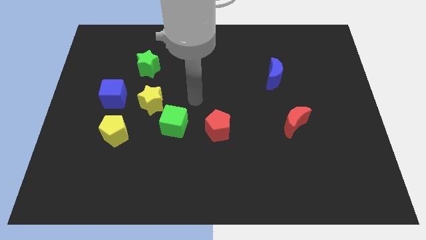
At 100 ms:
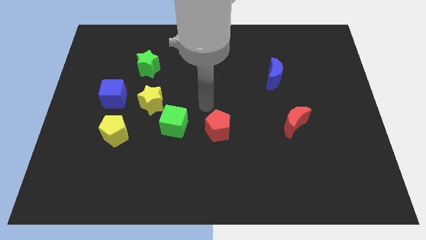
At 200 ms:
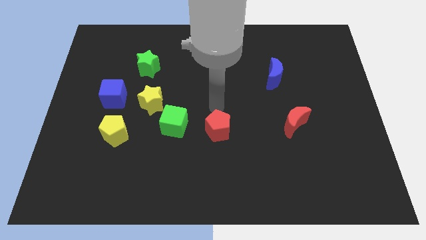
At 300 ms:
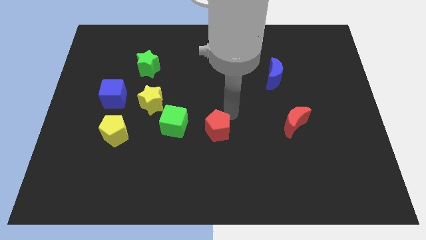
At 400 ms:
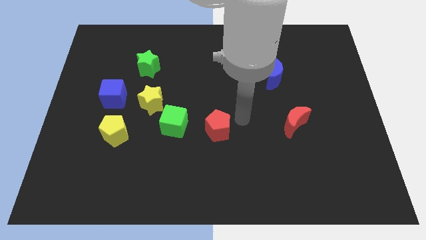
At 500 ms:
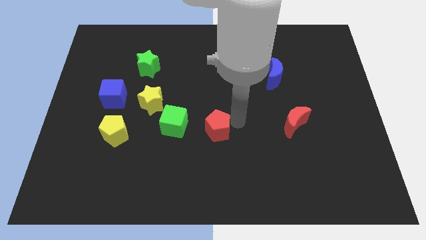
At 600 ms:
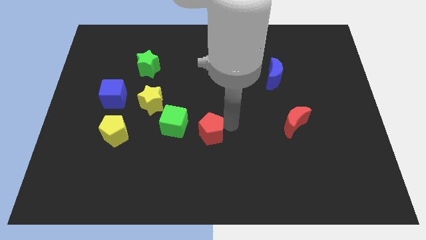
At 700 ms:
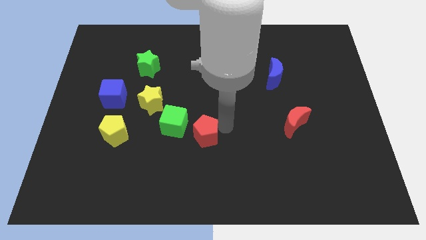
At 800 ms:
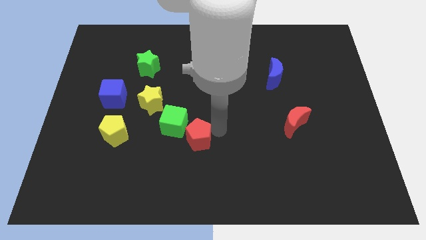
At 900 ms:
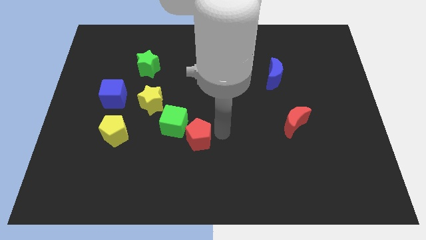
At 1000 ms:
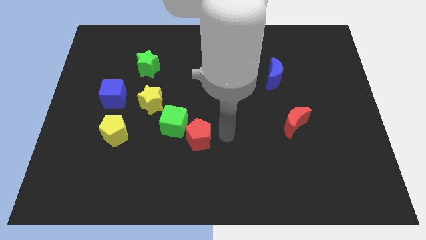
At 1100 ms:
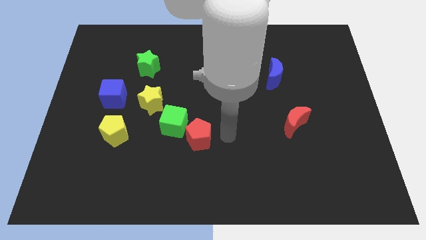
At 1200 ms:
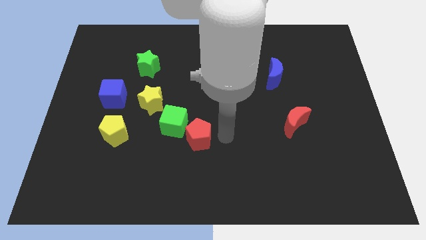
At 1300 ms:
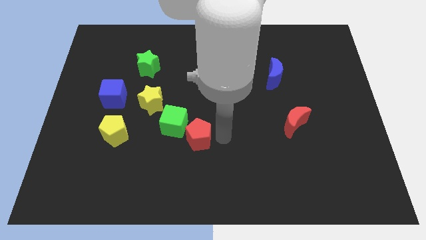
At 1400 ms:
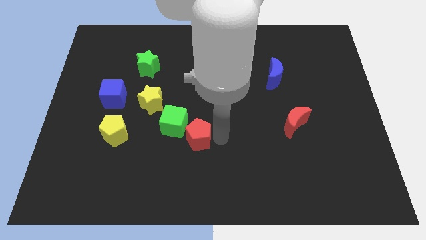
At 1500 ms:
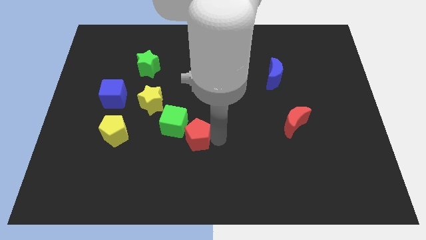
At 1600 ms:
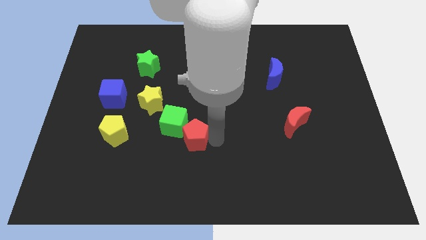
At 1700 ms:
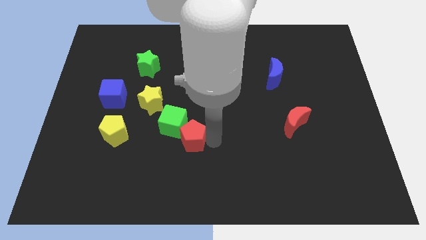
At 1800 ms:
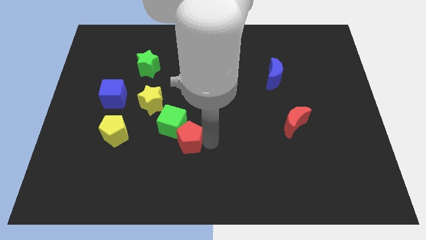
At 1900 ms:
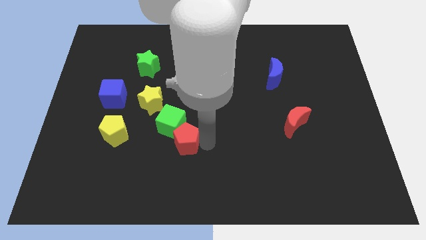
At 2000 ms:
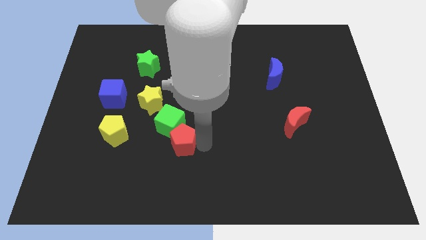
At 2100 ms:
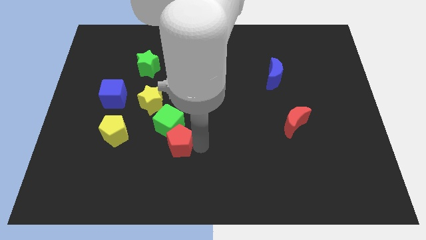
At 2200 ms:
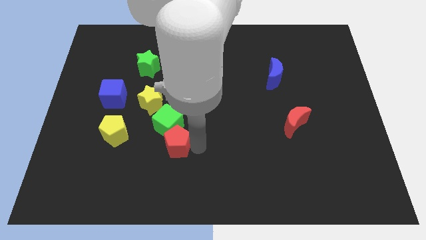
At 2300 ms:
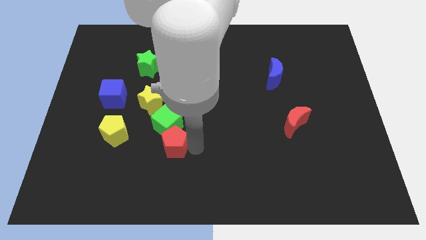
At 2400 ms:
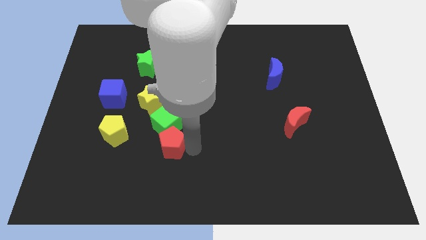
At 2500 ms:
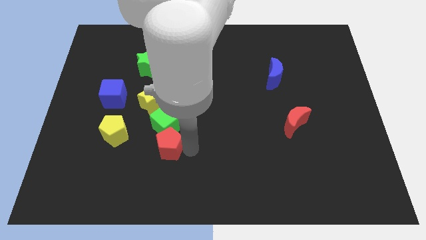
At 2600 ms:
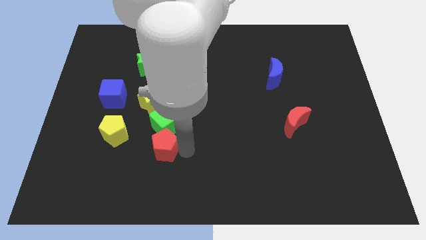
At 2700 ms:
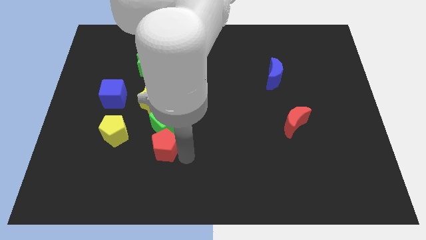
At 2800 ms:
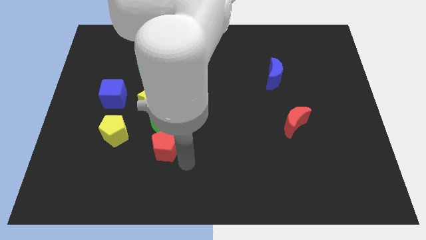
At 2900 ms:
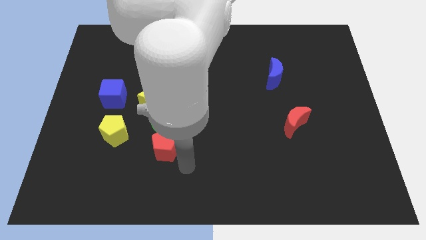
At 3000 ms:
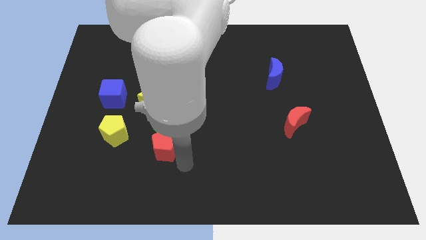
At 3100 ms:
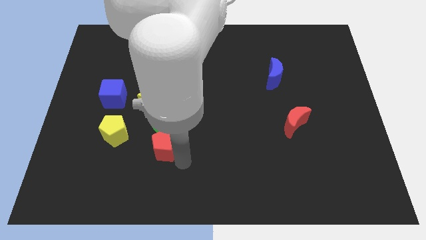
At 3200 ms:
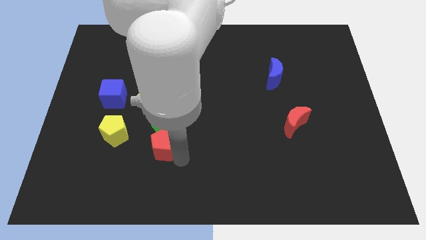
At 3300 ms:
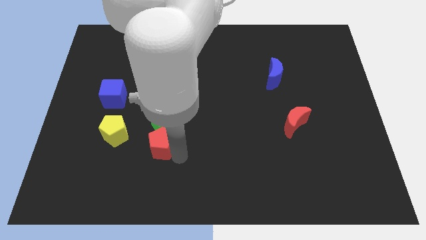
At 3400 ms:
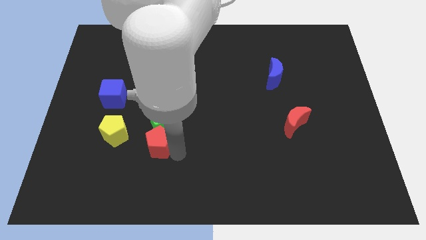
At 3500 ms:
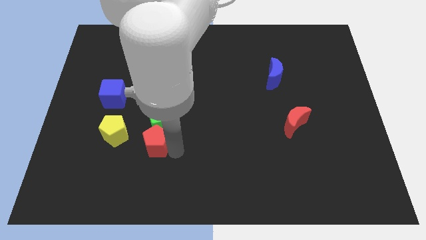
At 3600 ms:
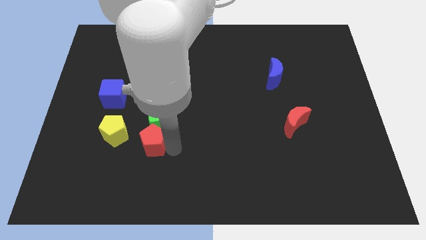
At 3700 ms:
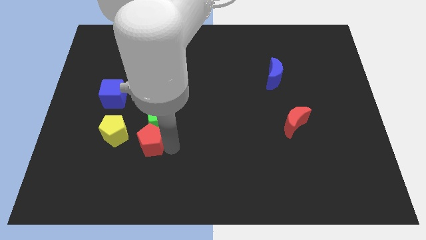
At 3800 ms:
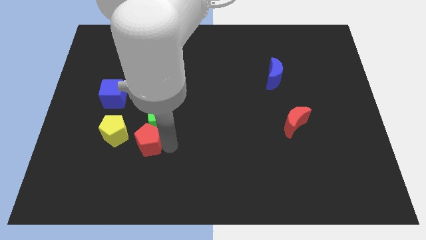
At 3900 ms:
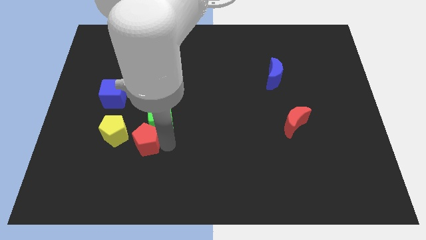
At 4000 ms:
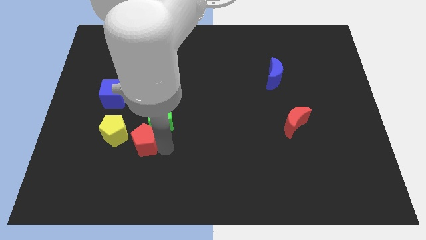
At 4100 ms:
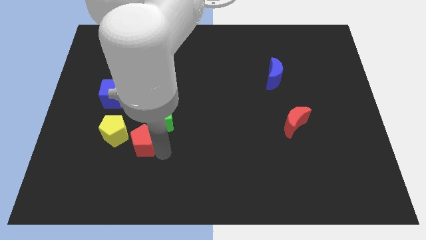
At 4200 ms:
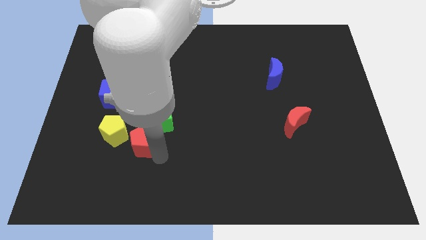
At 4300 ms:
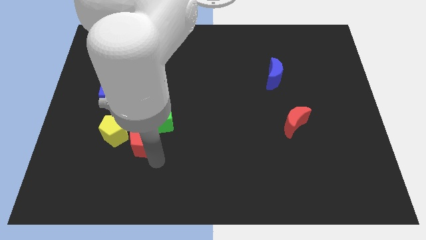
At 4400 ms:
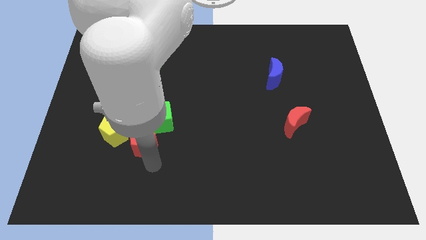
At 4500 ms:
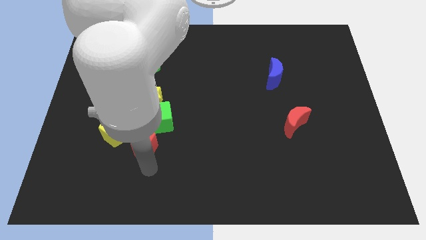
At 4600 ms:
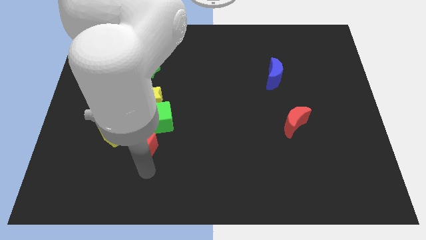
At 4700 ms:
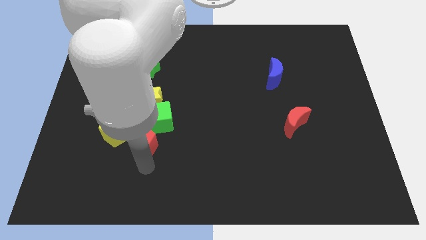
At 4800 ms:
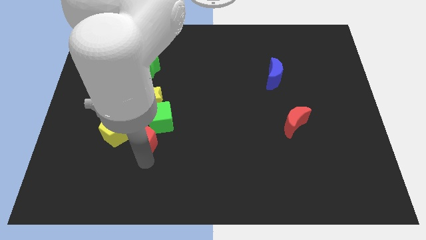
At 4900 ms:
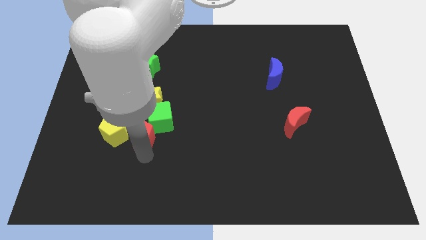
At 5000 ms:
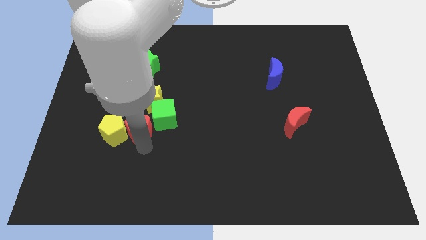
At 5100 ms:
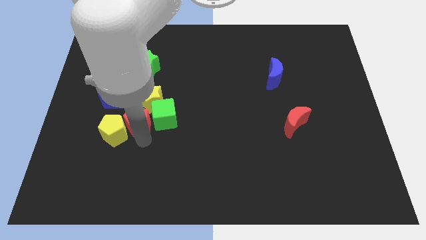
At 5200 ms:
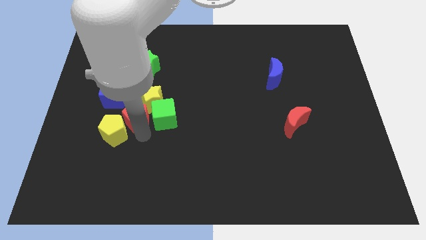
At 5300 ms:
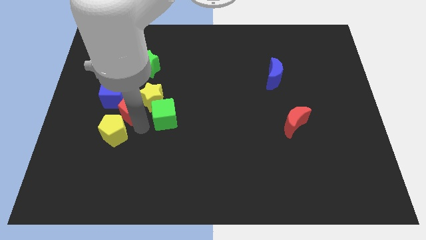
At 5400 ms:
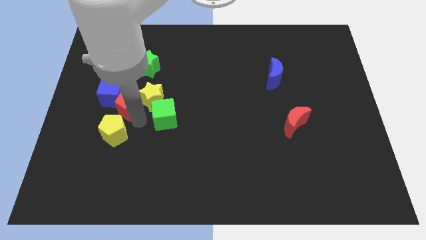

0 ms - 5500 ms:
move the red pentagon close to the blue cube

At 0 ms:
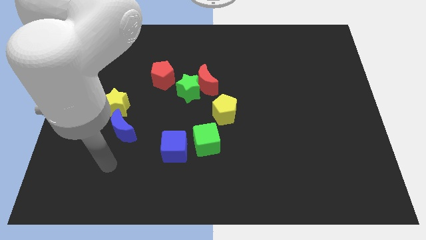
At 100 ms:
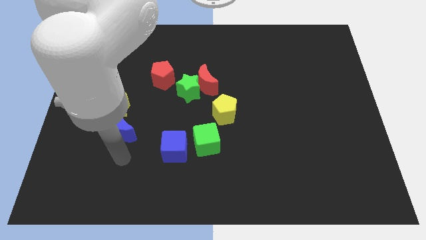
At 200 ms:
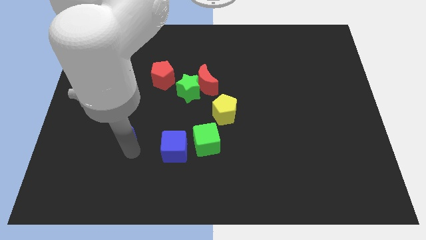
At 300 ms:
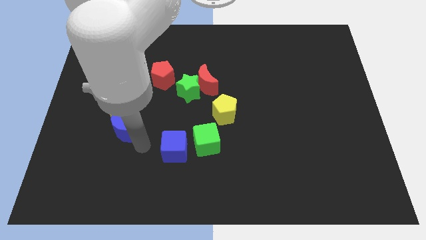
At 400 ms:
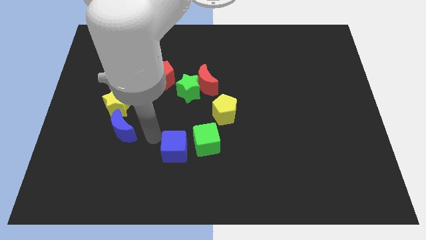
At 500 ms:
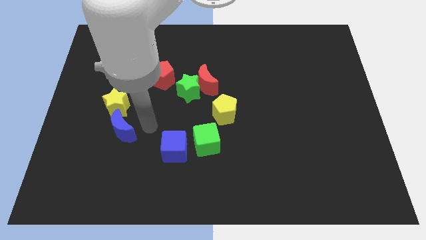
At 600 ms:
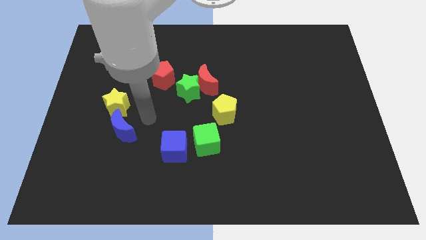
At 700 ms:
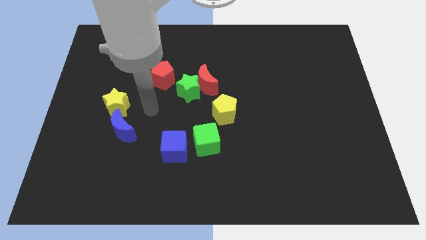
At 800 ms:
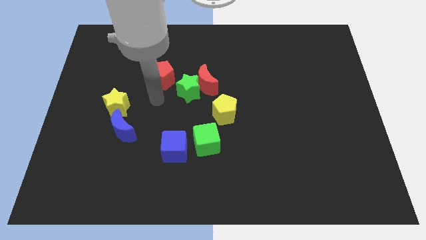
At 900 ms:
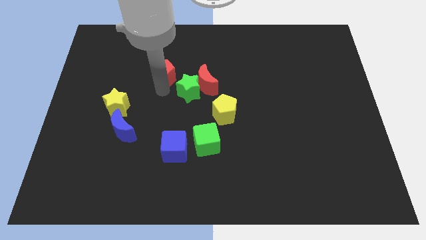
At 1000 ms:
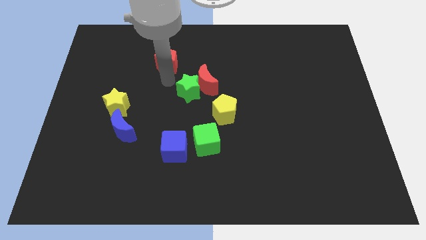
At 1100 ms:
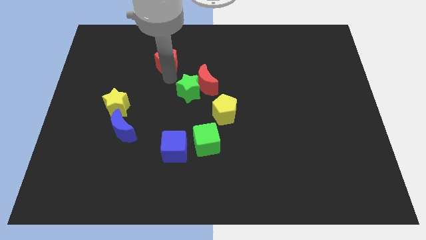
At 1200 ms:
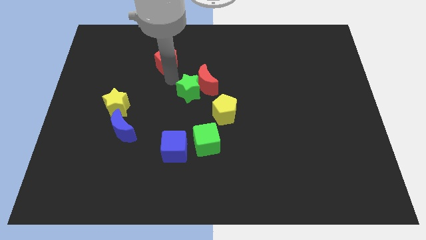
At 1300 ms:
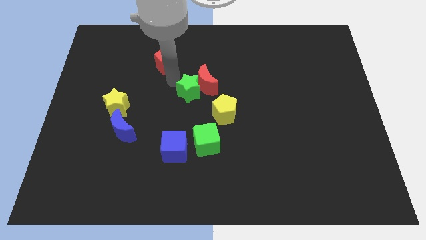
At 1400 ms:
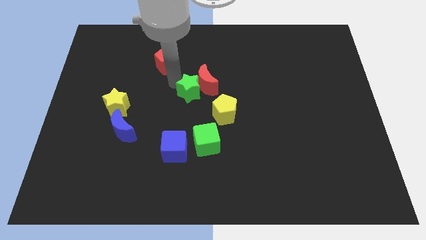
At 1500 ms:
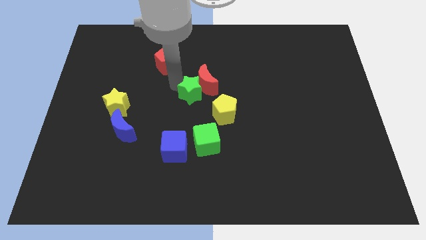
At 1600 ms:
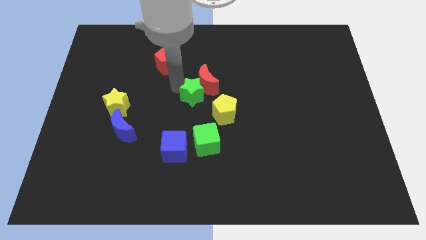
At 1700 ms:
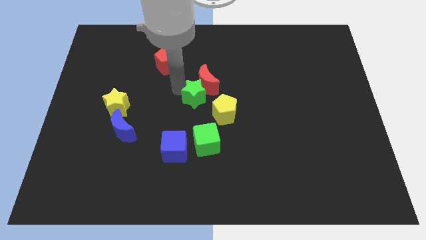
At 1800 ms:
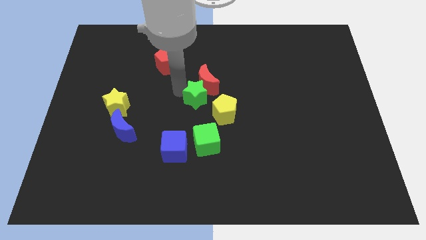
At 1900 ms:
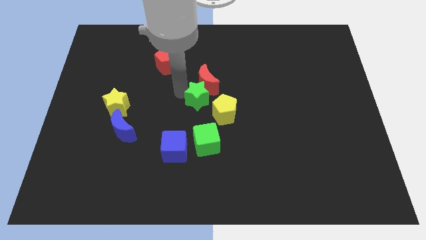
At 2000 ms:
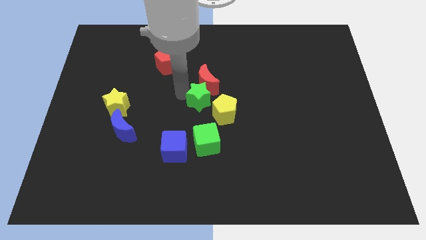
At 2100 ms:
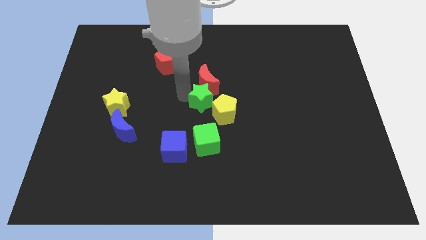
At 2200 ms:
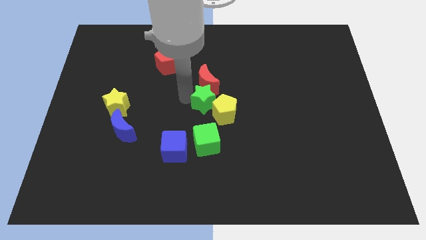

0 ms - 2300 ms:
slide the green star close to the yellow pentagon

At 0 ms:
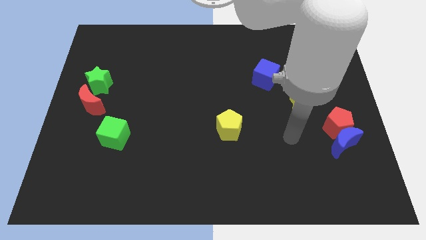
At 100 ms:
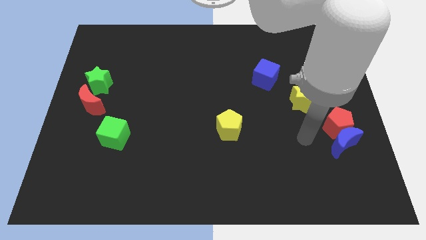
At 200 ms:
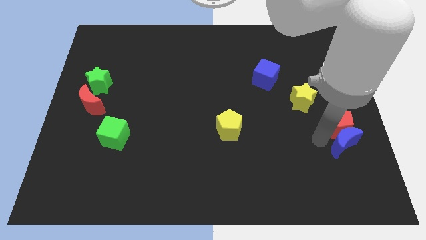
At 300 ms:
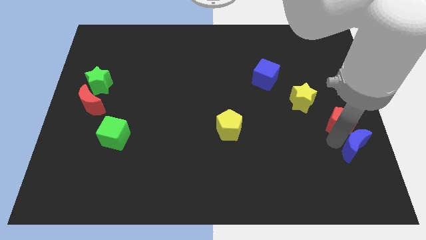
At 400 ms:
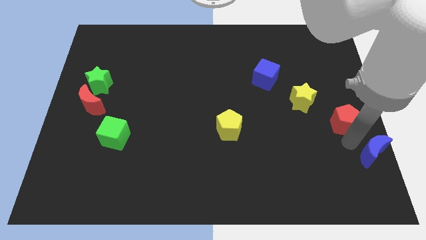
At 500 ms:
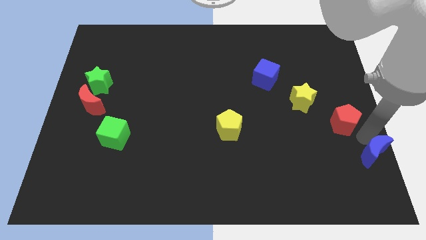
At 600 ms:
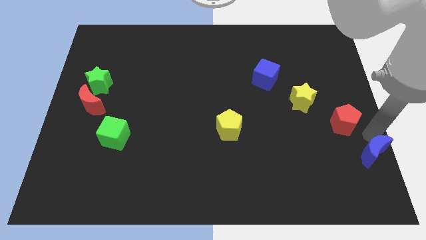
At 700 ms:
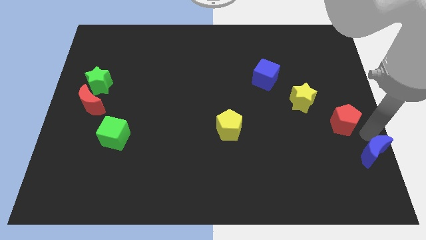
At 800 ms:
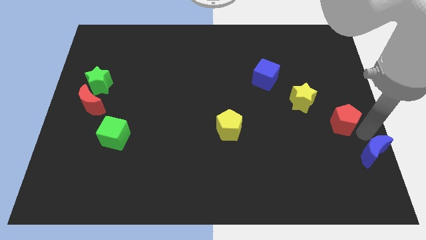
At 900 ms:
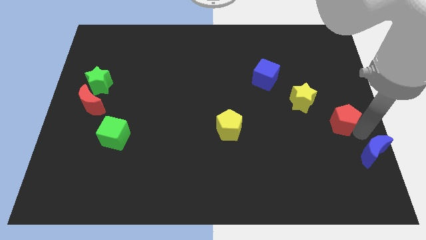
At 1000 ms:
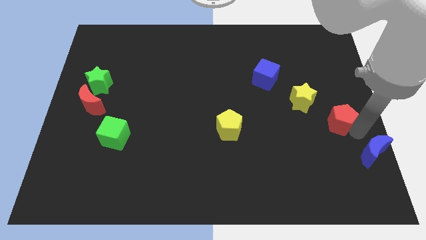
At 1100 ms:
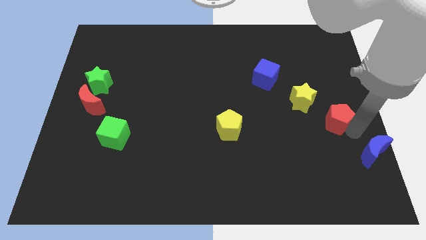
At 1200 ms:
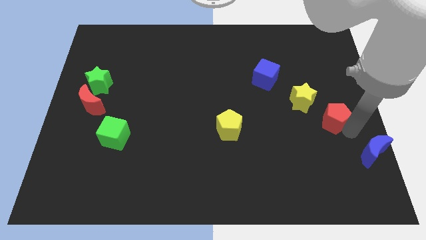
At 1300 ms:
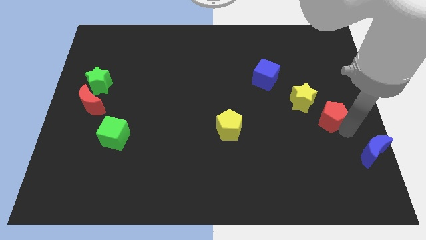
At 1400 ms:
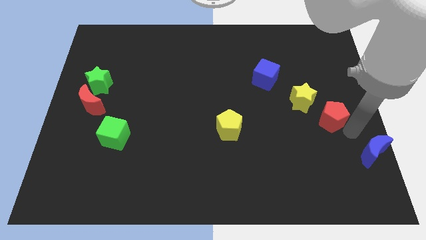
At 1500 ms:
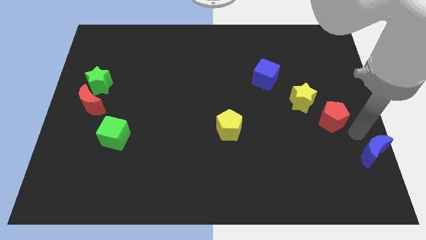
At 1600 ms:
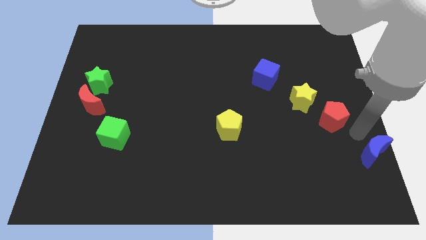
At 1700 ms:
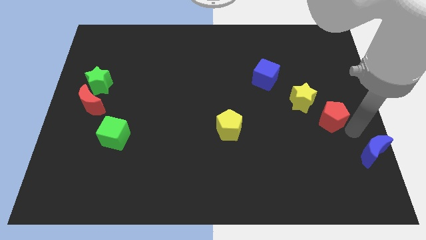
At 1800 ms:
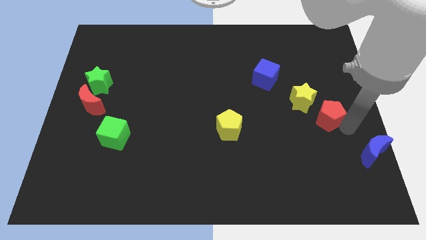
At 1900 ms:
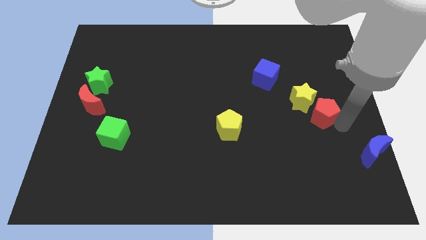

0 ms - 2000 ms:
push the red pentagon next to the yellow star
